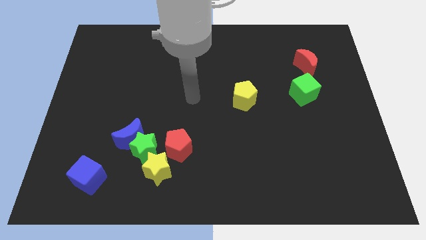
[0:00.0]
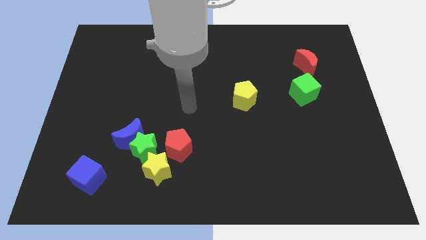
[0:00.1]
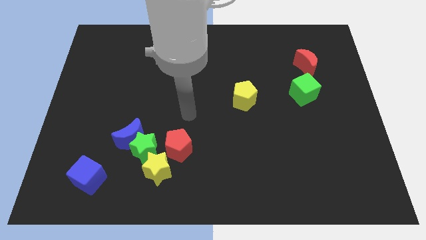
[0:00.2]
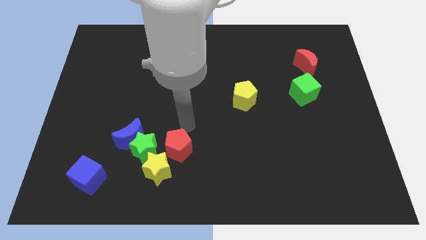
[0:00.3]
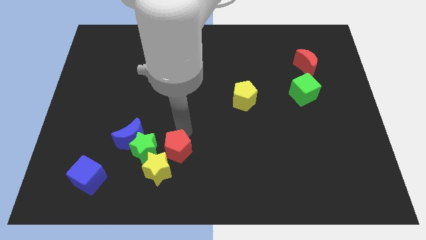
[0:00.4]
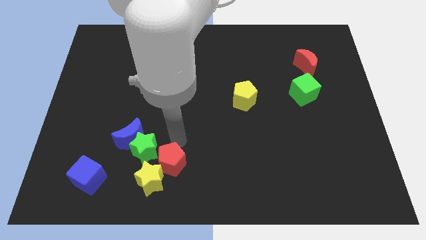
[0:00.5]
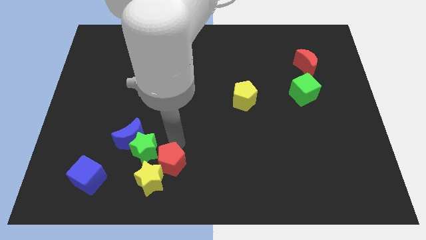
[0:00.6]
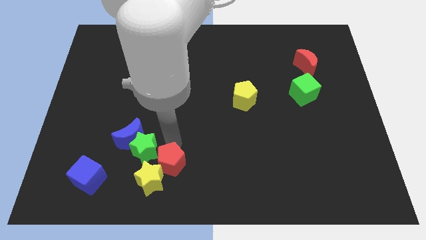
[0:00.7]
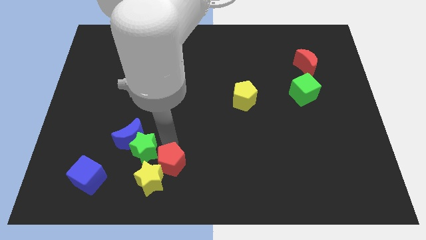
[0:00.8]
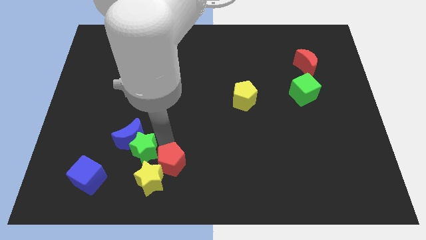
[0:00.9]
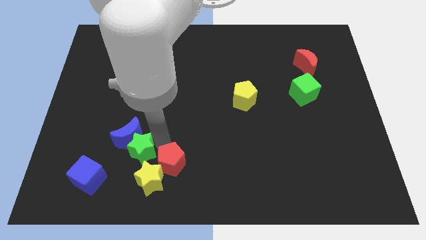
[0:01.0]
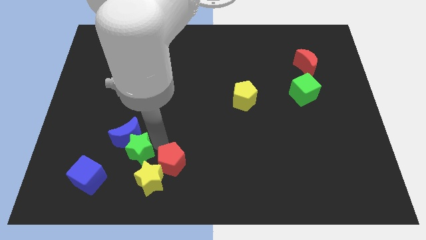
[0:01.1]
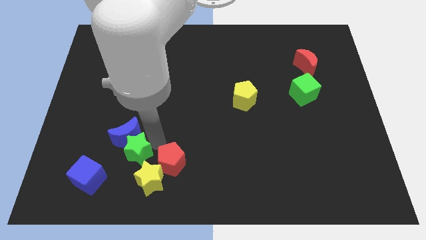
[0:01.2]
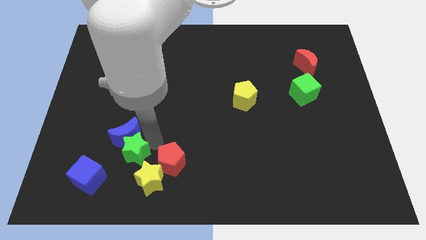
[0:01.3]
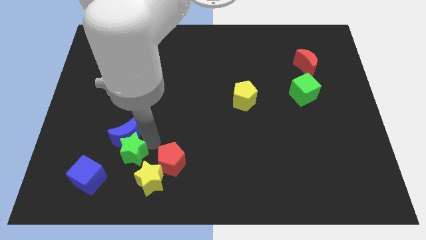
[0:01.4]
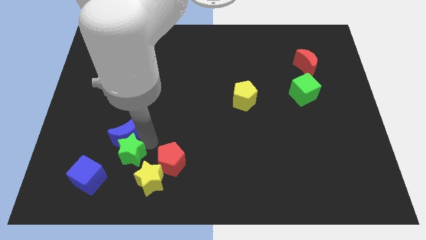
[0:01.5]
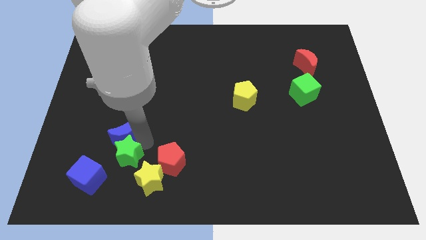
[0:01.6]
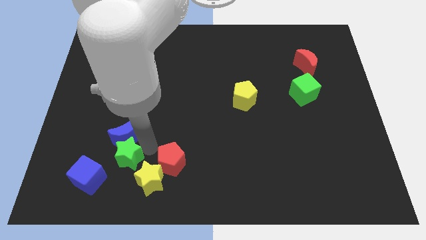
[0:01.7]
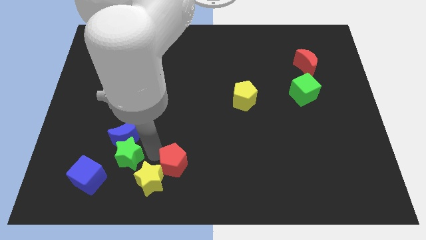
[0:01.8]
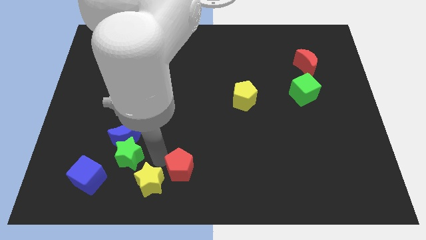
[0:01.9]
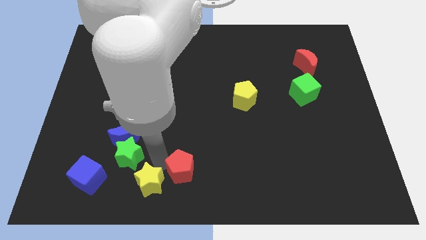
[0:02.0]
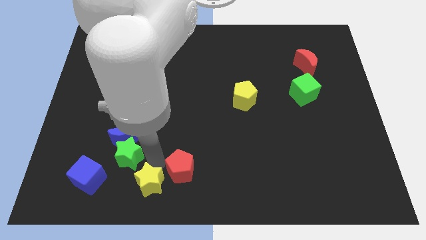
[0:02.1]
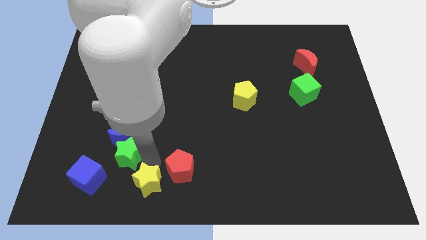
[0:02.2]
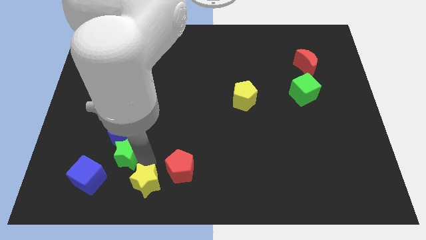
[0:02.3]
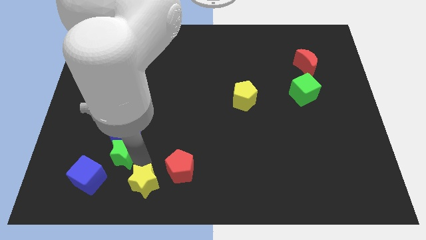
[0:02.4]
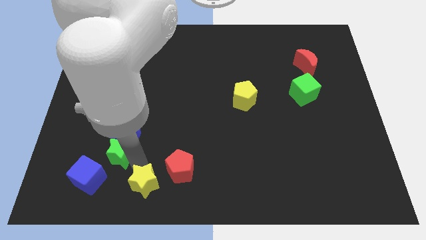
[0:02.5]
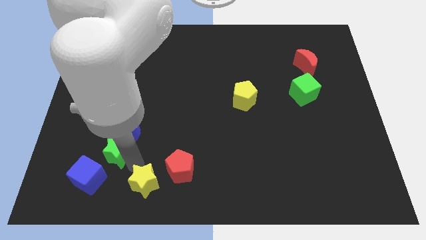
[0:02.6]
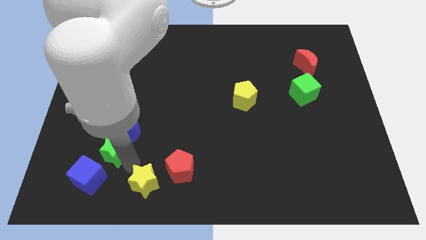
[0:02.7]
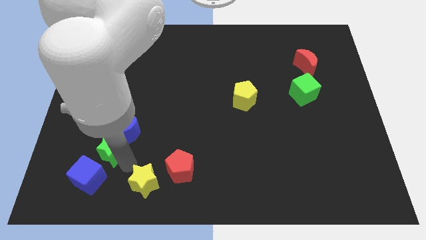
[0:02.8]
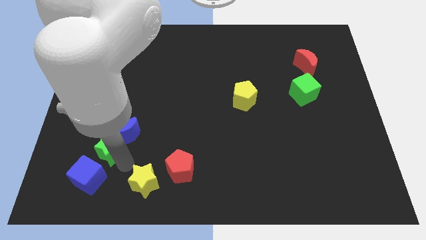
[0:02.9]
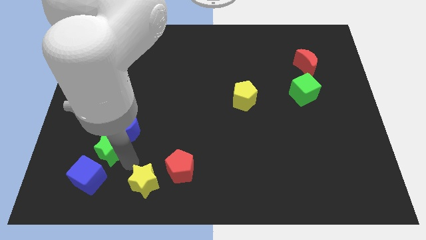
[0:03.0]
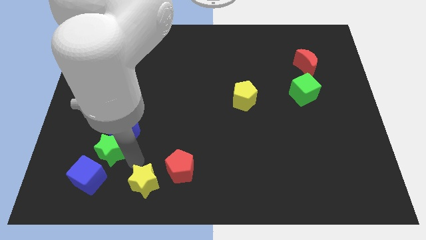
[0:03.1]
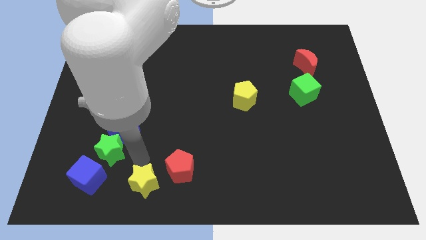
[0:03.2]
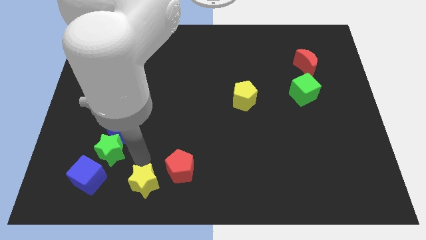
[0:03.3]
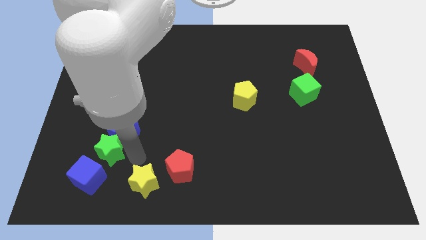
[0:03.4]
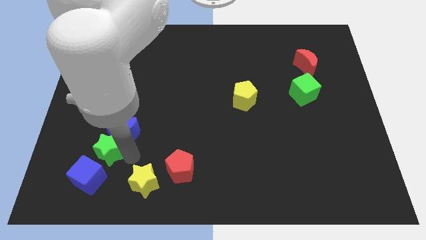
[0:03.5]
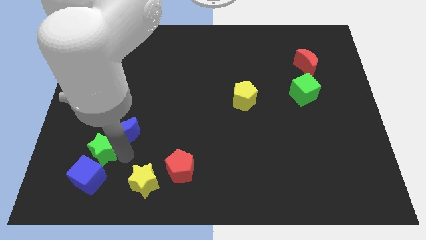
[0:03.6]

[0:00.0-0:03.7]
move the green star away from the blue moon, yellow star, and red pentagon

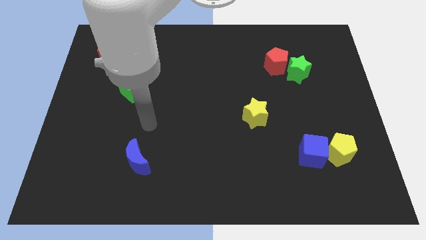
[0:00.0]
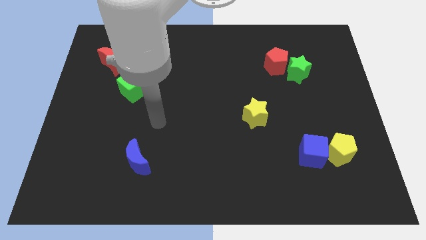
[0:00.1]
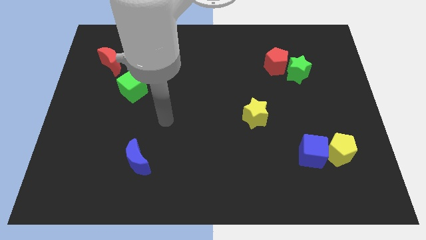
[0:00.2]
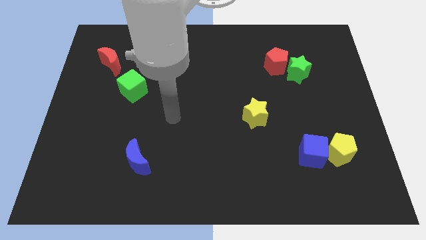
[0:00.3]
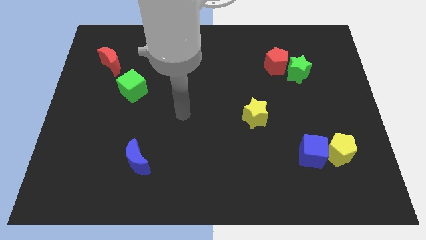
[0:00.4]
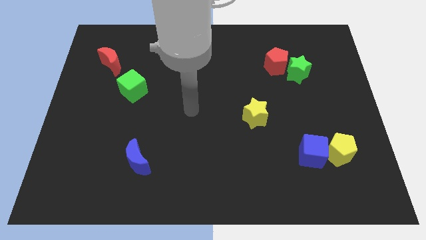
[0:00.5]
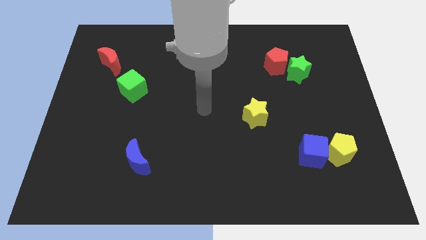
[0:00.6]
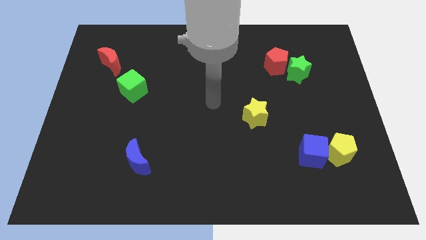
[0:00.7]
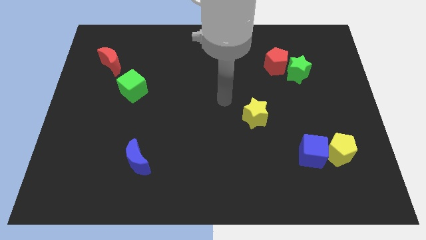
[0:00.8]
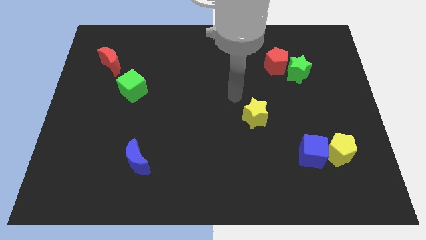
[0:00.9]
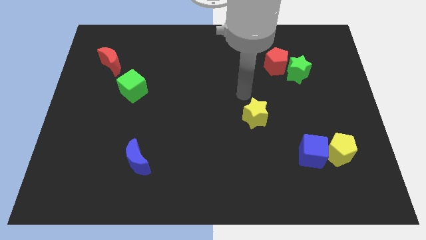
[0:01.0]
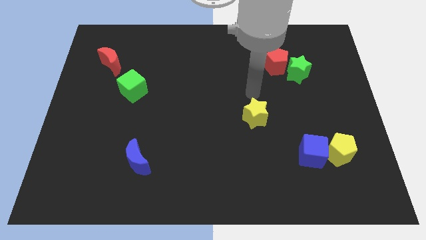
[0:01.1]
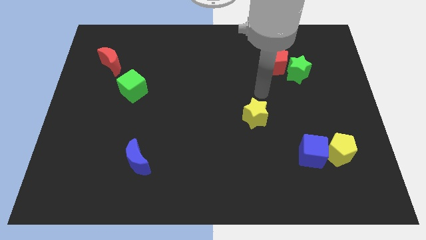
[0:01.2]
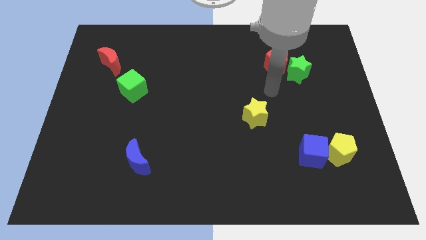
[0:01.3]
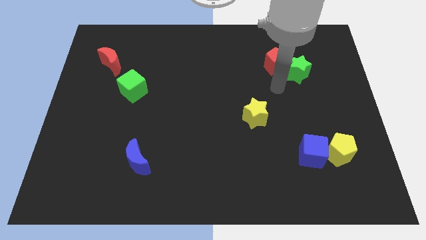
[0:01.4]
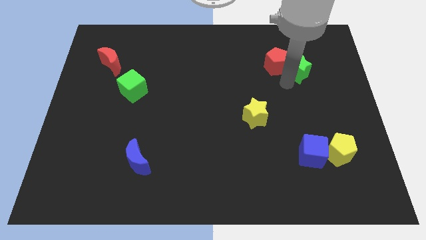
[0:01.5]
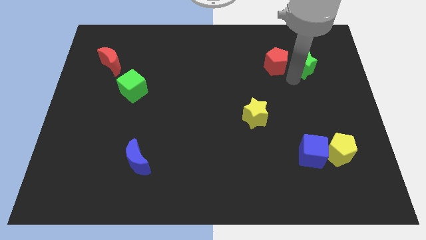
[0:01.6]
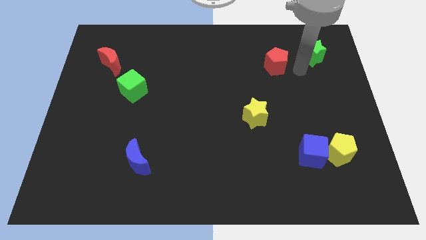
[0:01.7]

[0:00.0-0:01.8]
move the red pentagon away from the green star

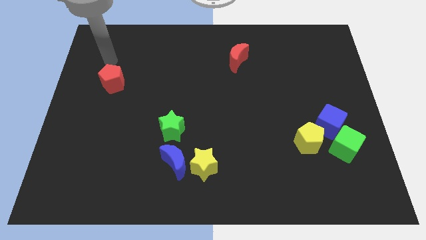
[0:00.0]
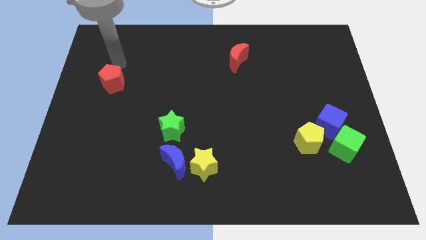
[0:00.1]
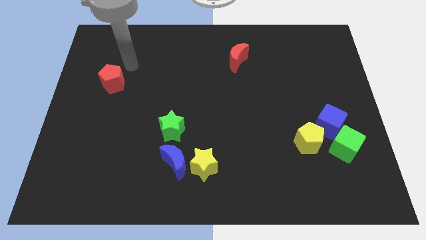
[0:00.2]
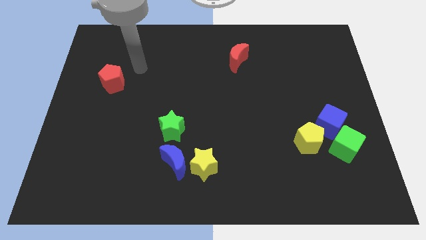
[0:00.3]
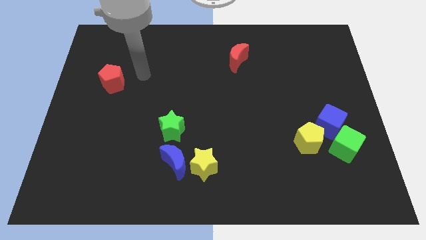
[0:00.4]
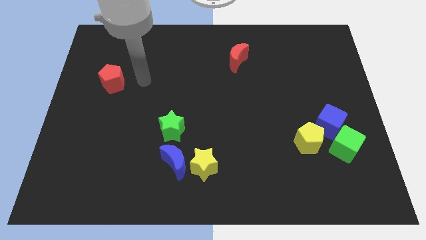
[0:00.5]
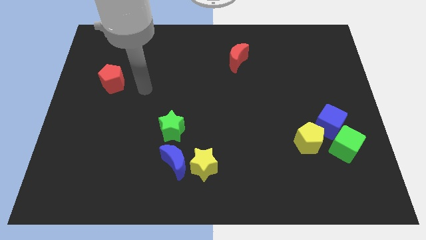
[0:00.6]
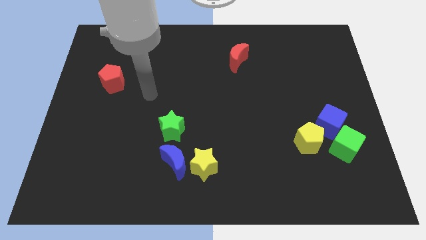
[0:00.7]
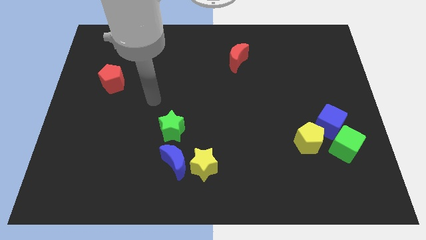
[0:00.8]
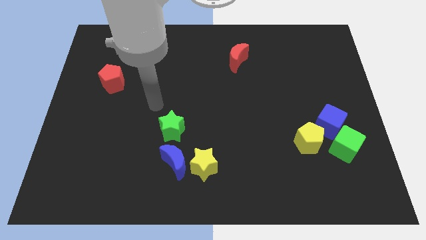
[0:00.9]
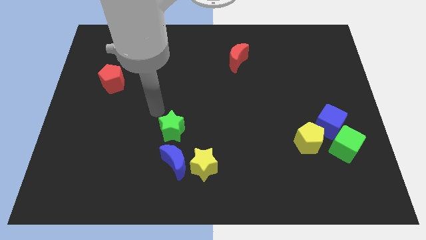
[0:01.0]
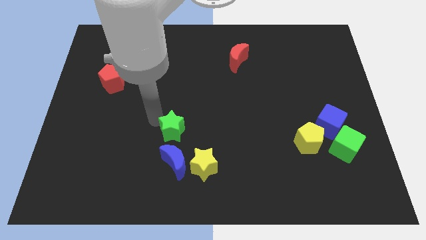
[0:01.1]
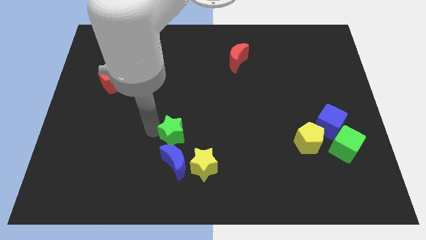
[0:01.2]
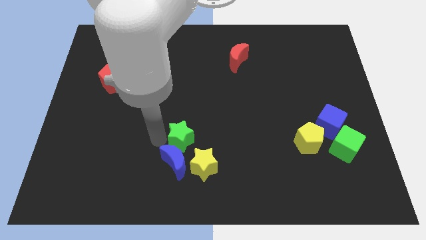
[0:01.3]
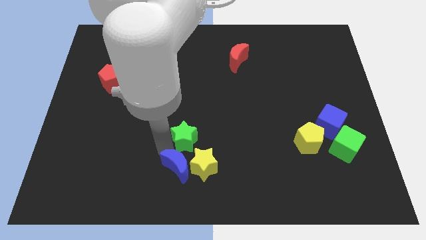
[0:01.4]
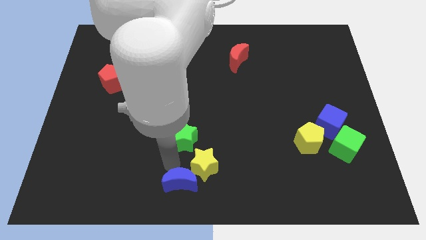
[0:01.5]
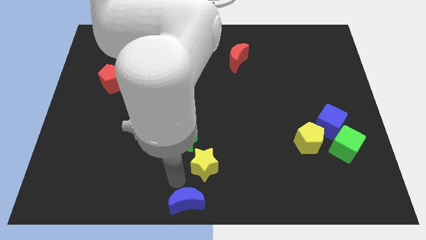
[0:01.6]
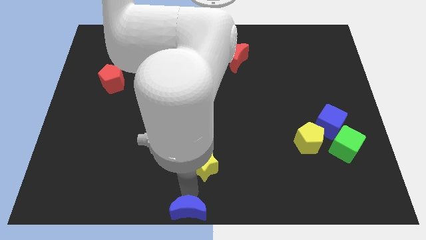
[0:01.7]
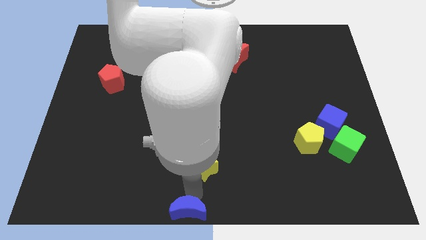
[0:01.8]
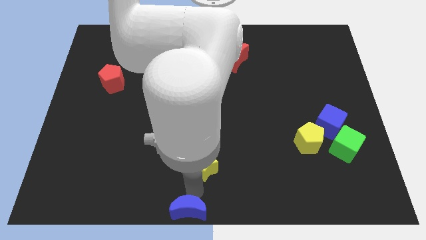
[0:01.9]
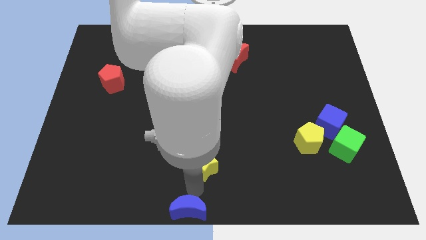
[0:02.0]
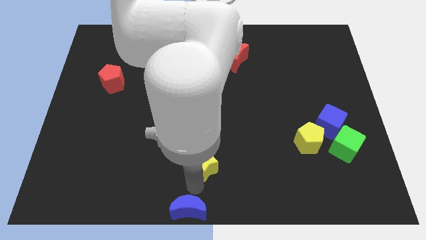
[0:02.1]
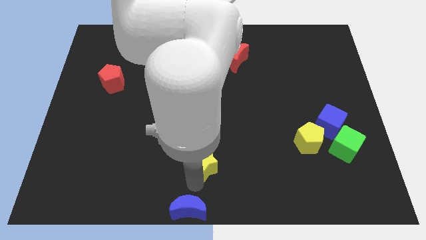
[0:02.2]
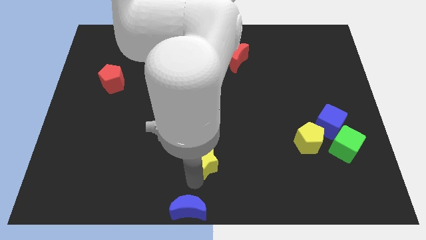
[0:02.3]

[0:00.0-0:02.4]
separate the yellow star from the blue moon

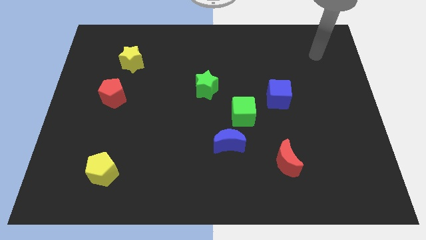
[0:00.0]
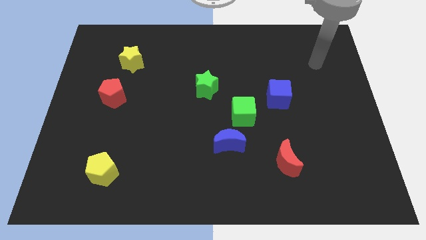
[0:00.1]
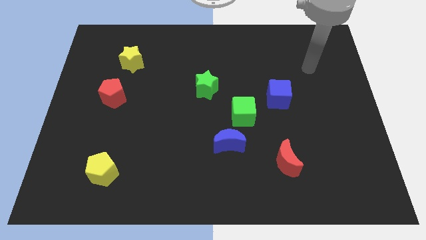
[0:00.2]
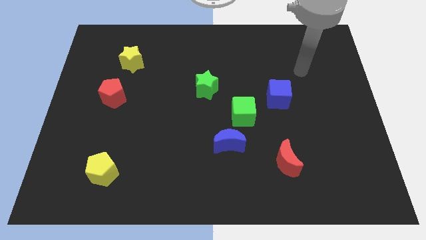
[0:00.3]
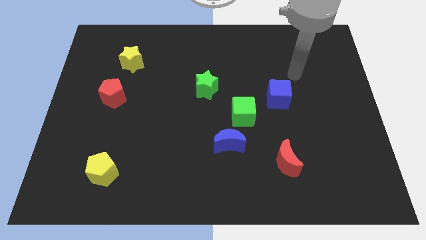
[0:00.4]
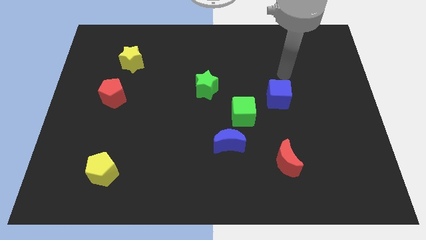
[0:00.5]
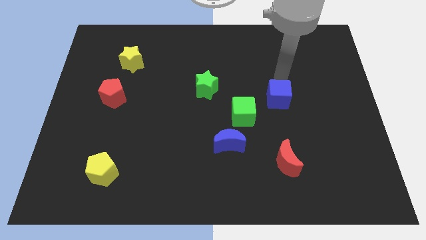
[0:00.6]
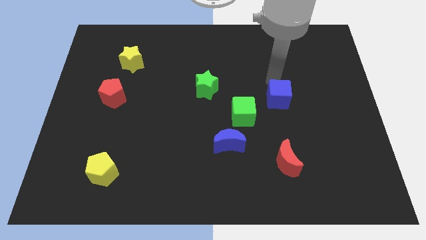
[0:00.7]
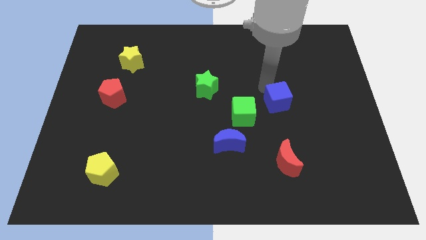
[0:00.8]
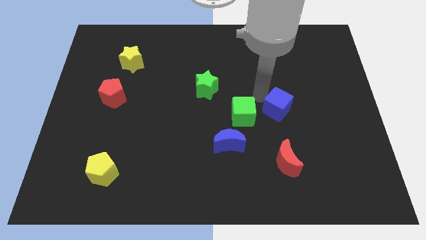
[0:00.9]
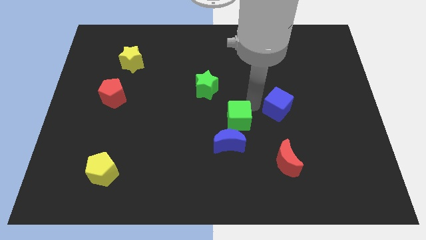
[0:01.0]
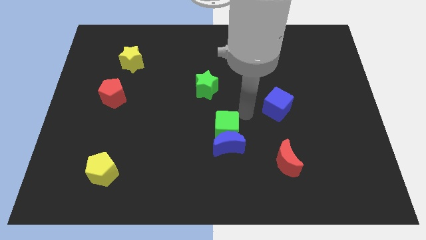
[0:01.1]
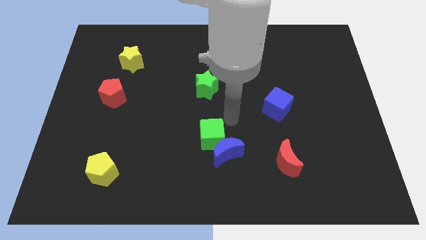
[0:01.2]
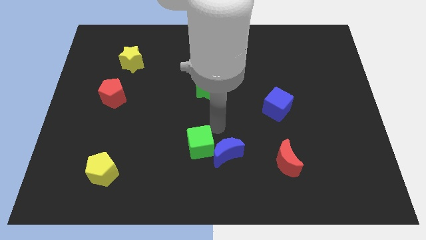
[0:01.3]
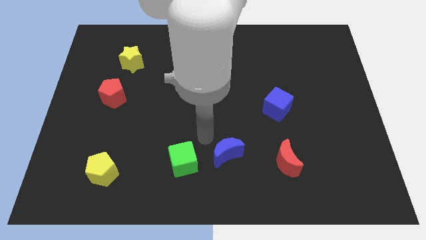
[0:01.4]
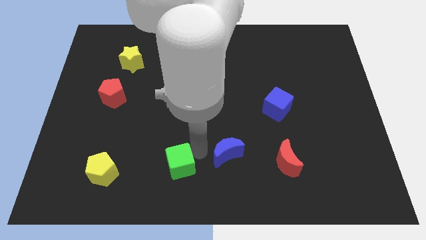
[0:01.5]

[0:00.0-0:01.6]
pull the blue moon apart from the green cube
